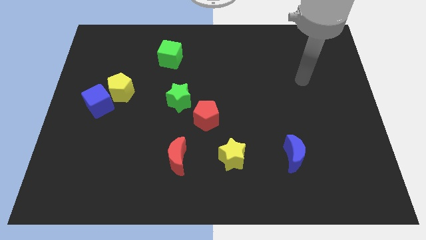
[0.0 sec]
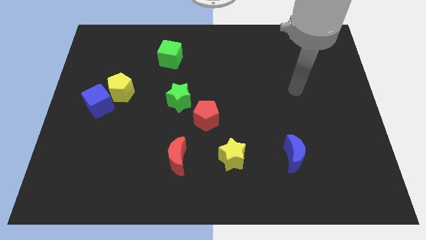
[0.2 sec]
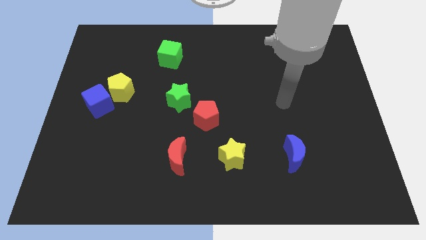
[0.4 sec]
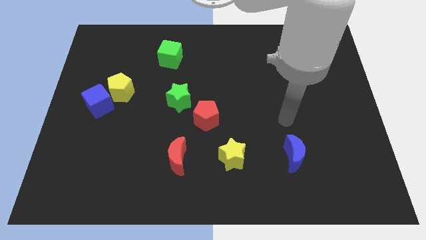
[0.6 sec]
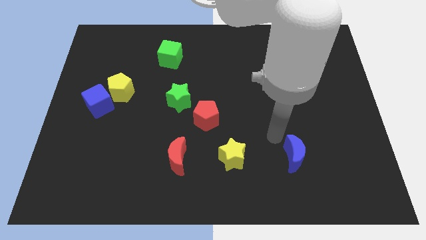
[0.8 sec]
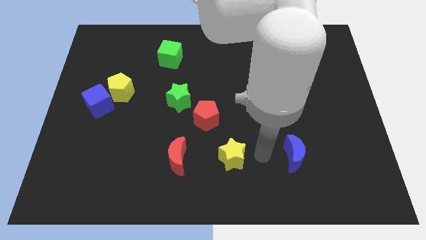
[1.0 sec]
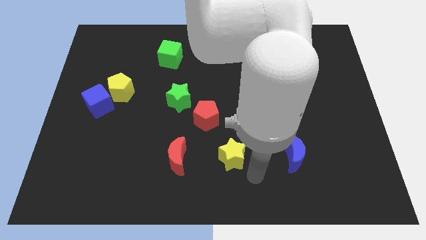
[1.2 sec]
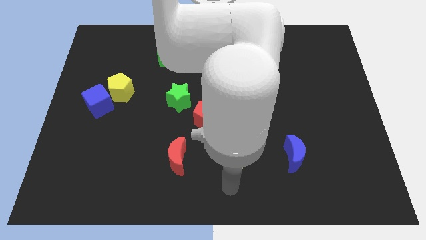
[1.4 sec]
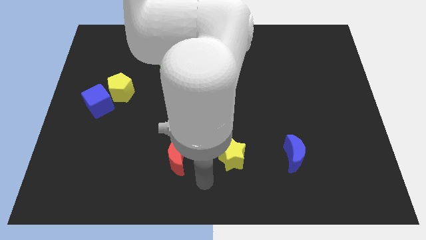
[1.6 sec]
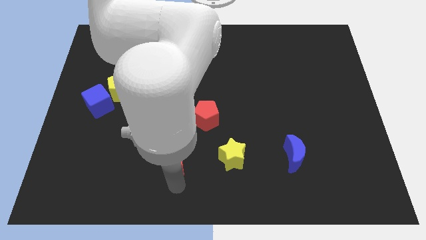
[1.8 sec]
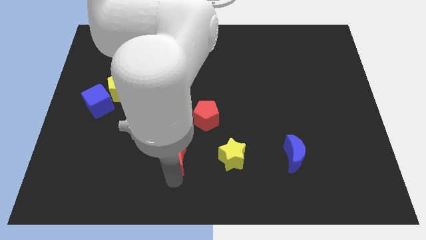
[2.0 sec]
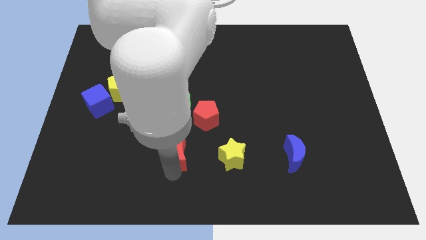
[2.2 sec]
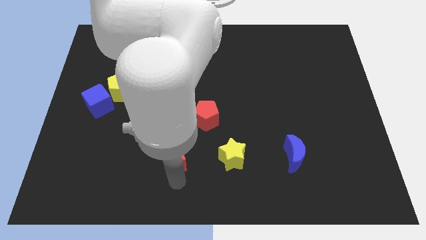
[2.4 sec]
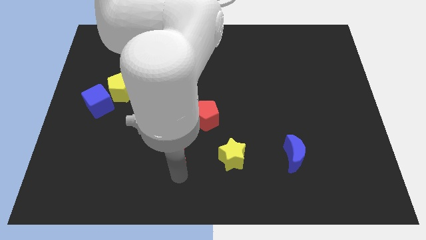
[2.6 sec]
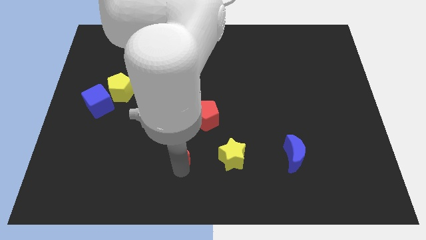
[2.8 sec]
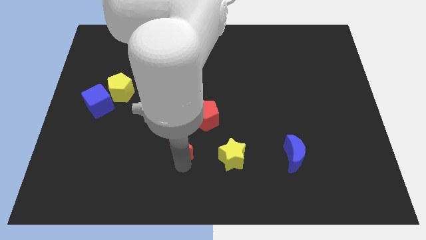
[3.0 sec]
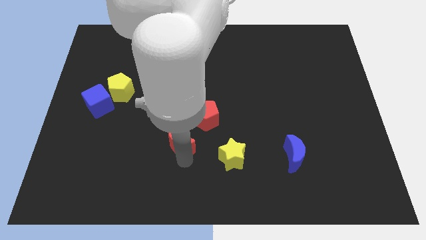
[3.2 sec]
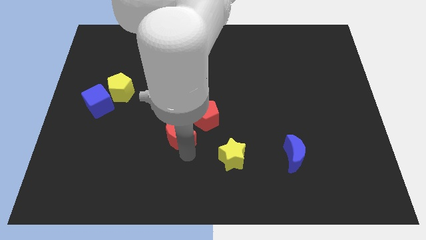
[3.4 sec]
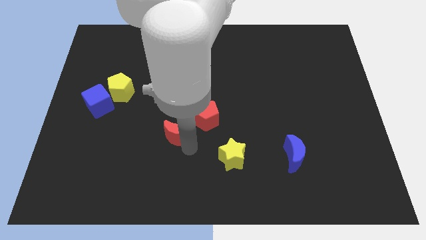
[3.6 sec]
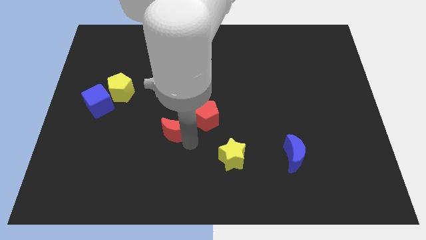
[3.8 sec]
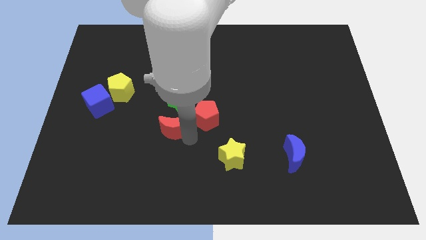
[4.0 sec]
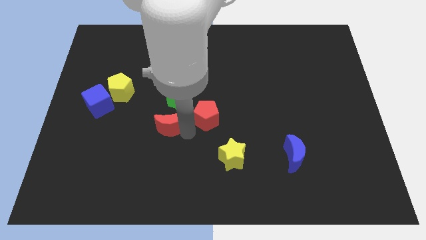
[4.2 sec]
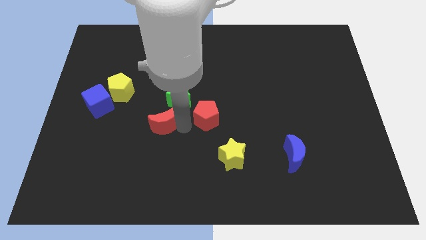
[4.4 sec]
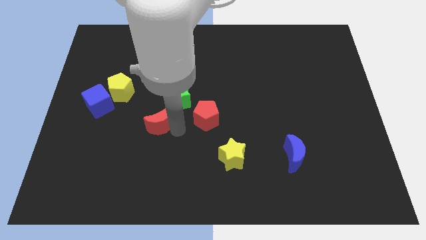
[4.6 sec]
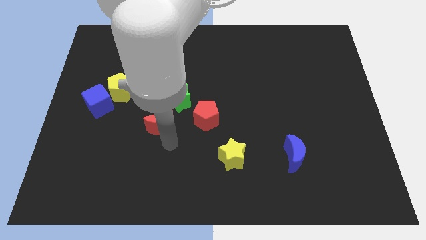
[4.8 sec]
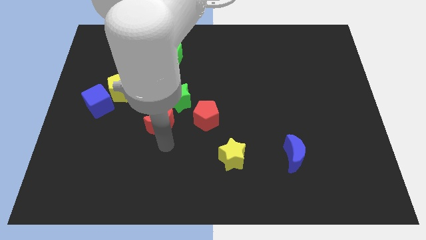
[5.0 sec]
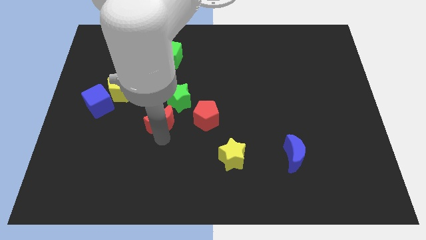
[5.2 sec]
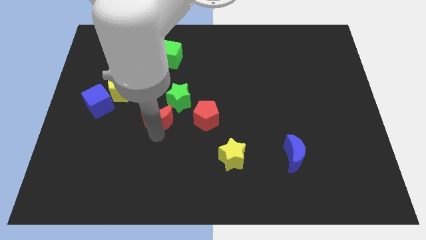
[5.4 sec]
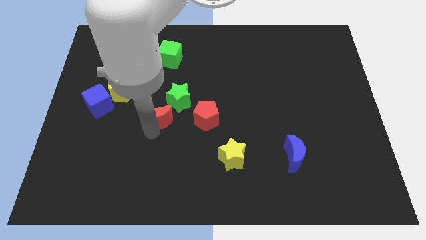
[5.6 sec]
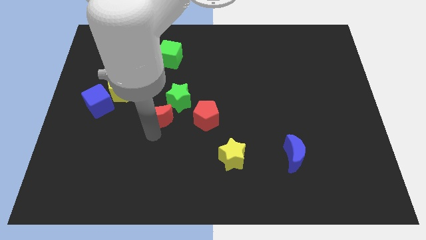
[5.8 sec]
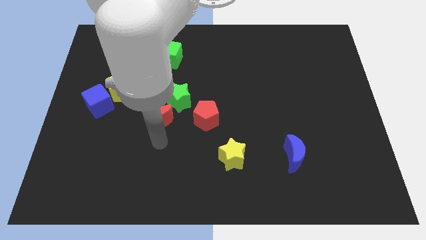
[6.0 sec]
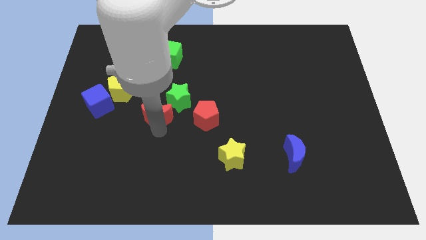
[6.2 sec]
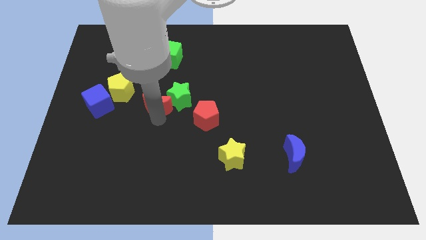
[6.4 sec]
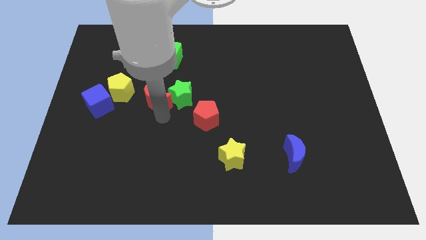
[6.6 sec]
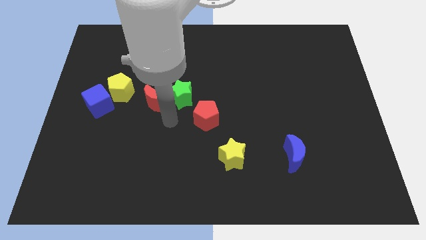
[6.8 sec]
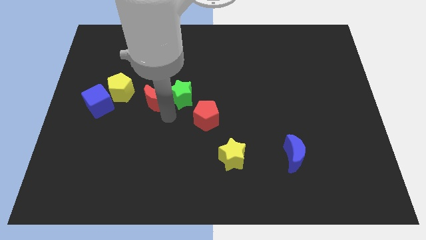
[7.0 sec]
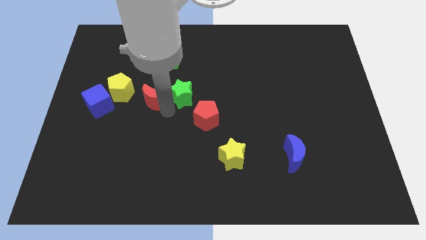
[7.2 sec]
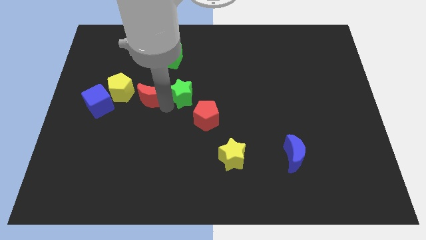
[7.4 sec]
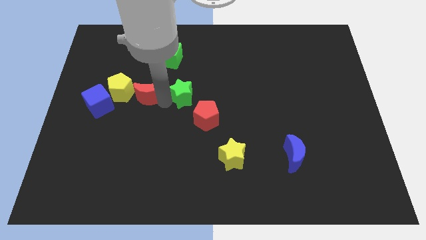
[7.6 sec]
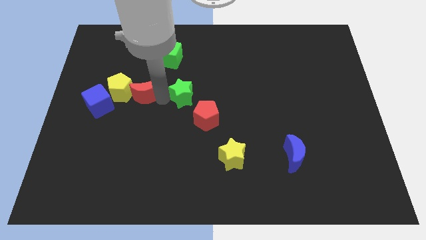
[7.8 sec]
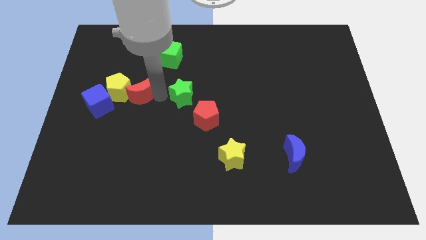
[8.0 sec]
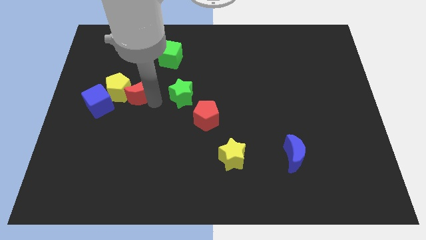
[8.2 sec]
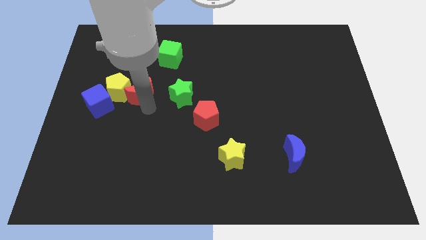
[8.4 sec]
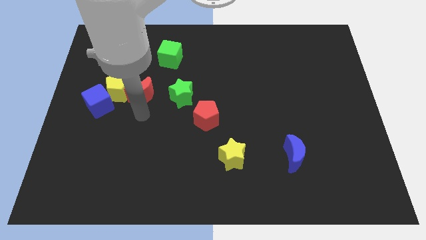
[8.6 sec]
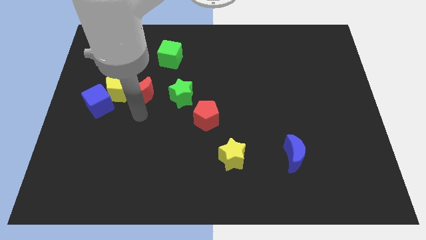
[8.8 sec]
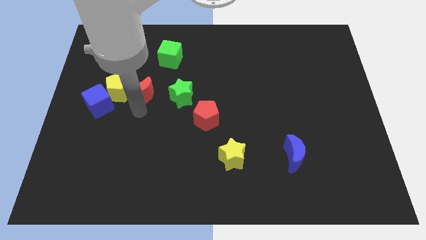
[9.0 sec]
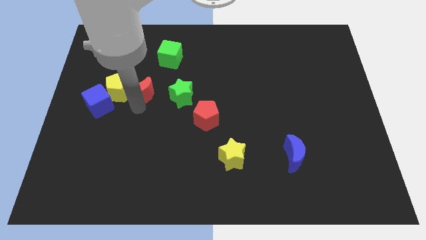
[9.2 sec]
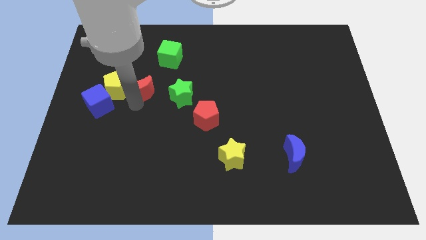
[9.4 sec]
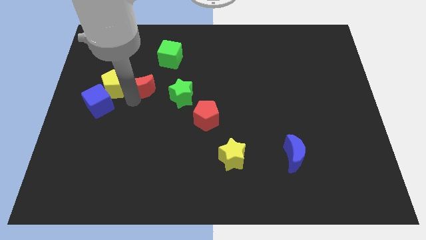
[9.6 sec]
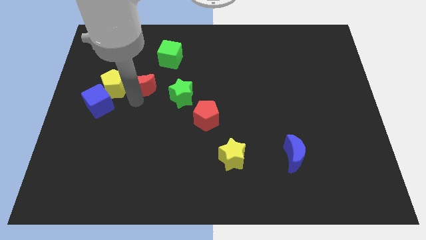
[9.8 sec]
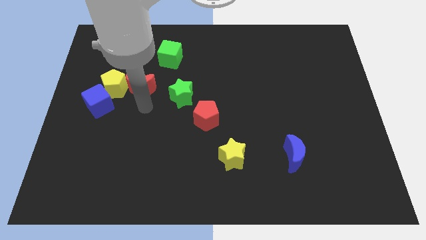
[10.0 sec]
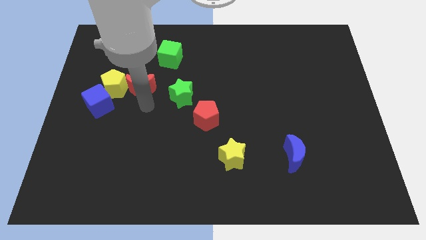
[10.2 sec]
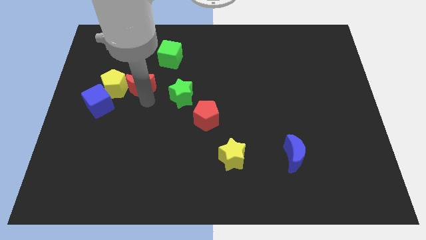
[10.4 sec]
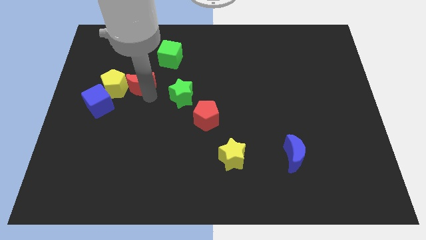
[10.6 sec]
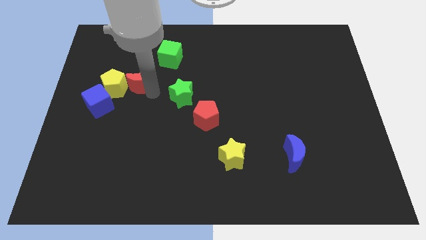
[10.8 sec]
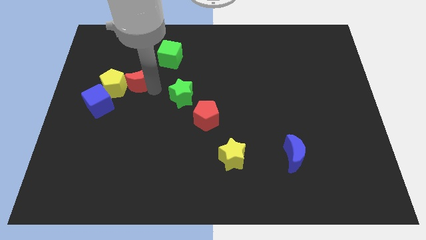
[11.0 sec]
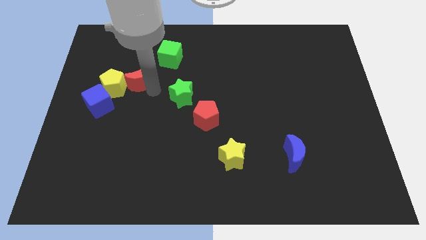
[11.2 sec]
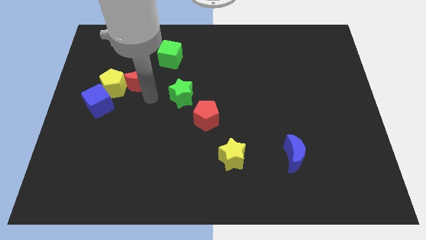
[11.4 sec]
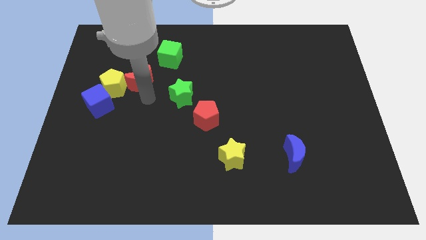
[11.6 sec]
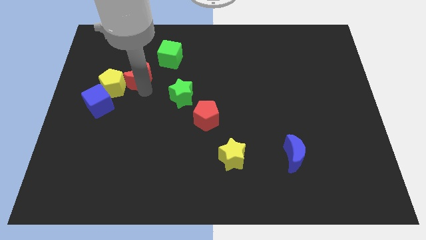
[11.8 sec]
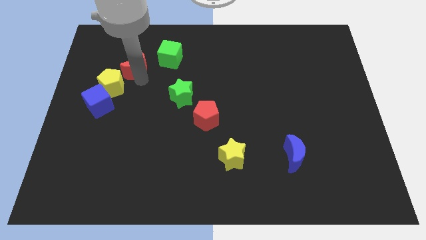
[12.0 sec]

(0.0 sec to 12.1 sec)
move the red moon to the left side of the green cube

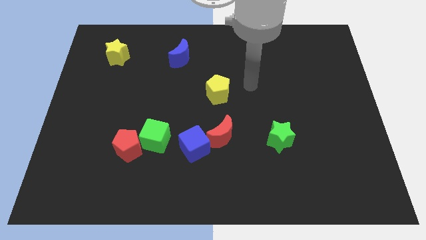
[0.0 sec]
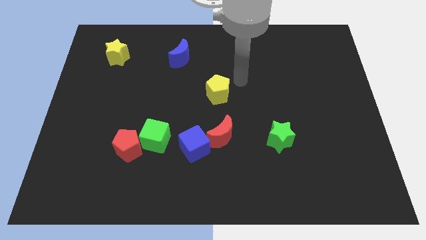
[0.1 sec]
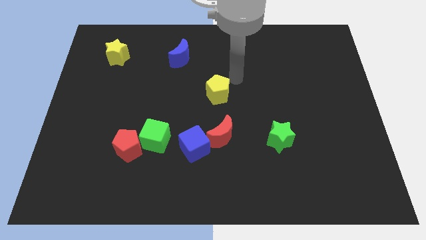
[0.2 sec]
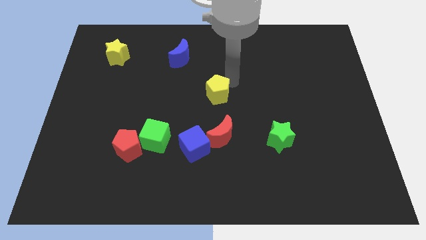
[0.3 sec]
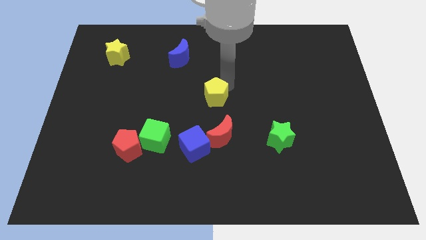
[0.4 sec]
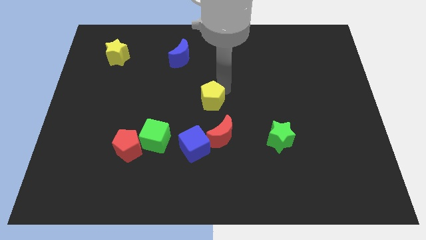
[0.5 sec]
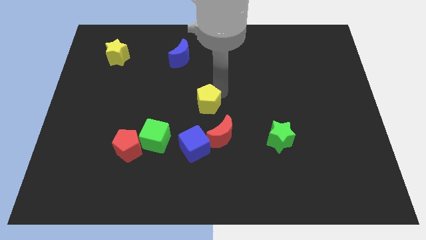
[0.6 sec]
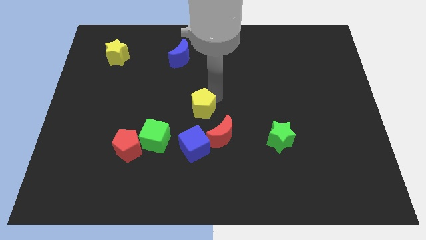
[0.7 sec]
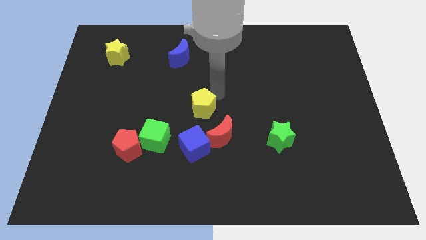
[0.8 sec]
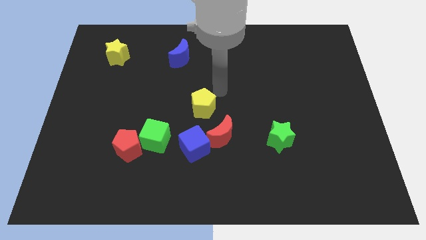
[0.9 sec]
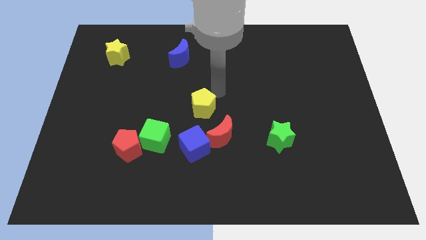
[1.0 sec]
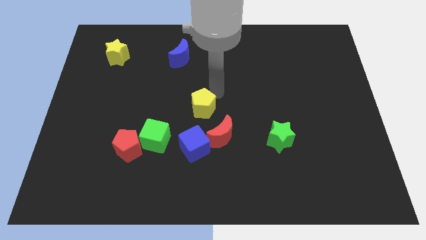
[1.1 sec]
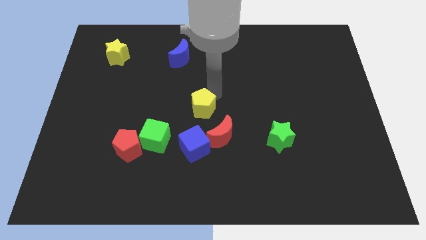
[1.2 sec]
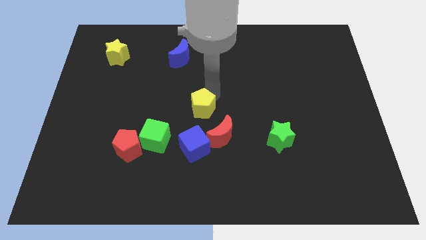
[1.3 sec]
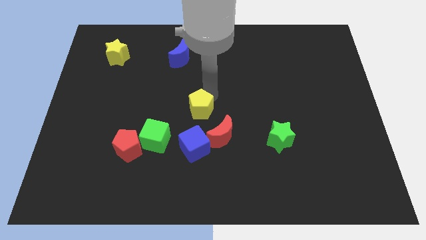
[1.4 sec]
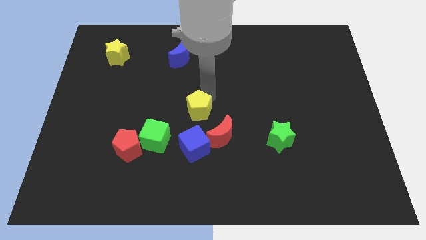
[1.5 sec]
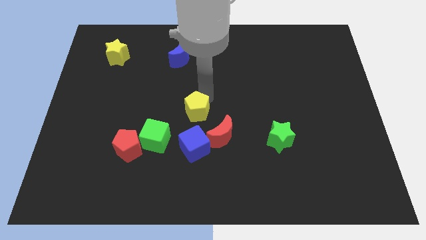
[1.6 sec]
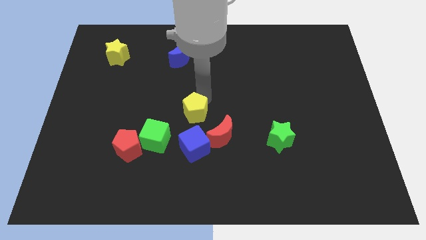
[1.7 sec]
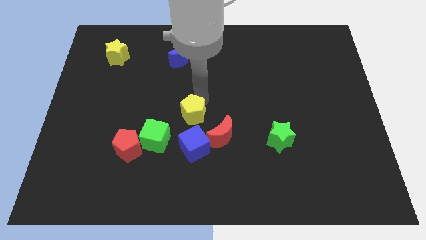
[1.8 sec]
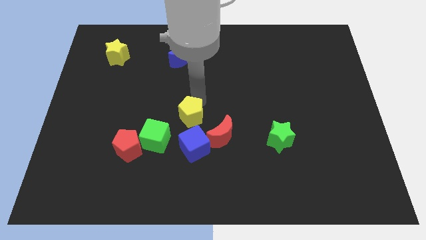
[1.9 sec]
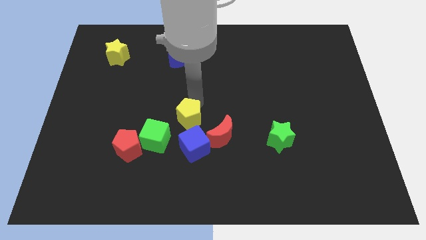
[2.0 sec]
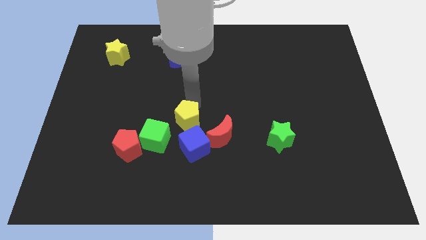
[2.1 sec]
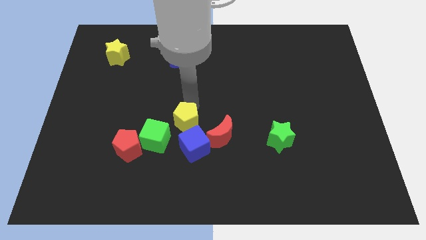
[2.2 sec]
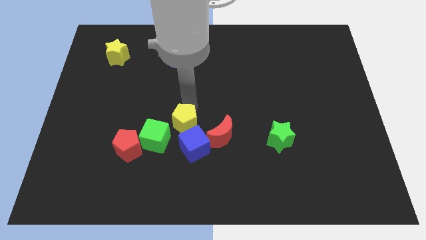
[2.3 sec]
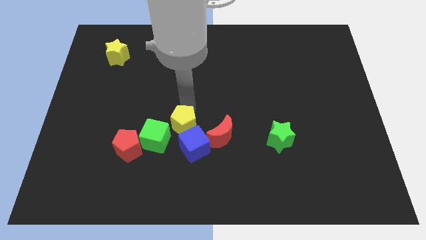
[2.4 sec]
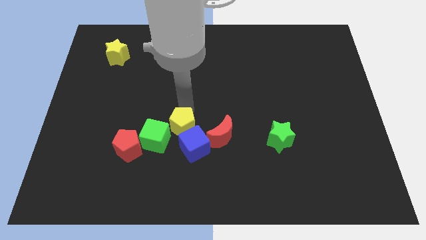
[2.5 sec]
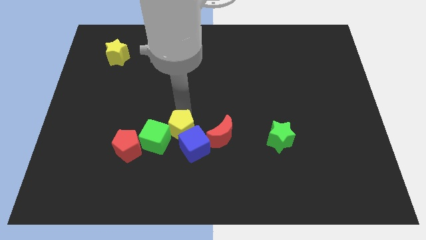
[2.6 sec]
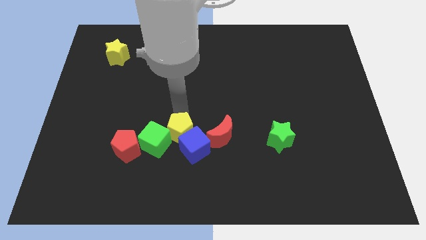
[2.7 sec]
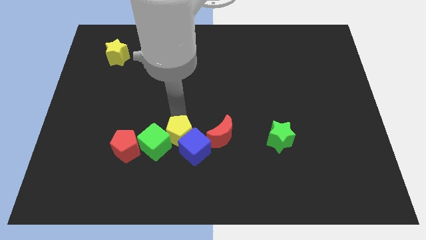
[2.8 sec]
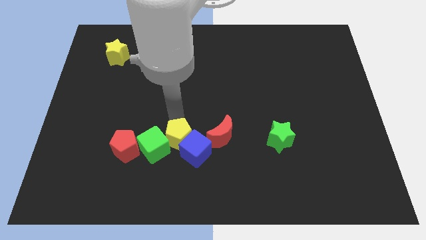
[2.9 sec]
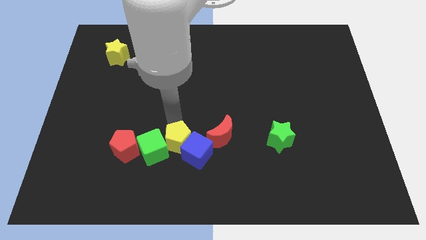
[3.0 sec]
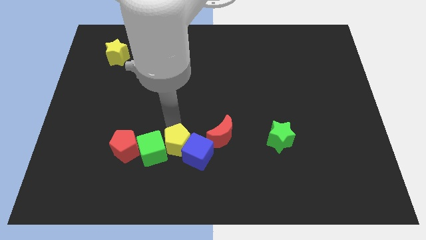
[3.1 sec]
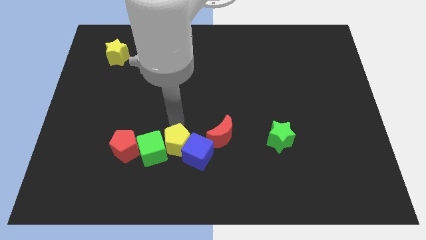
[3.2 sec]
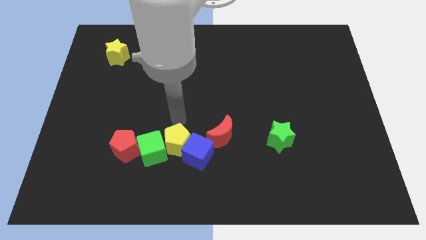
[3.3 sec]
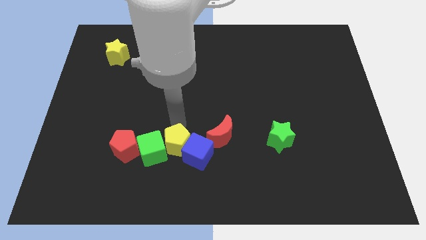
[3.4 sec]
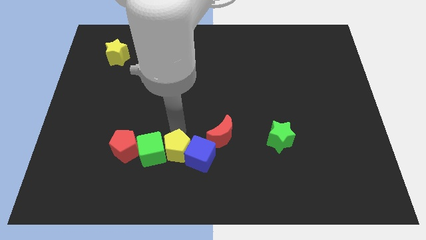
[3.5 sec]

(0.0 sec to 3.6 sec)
slide the yellow pentagon diagonally down and to the right of the green cube
